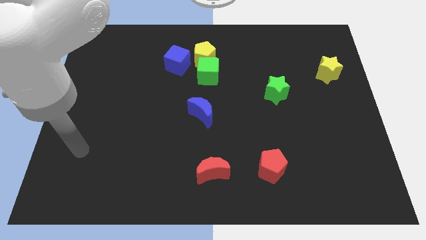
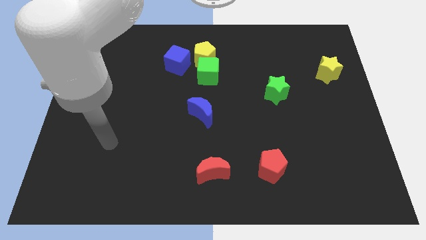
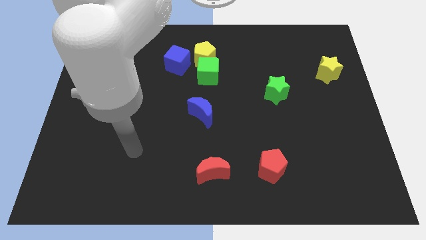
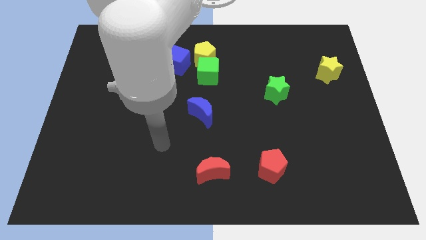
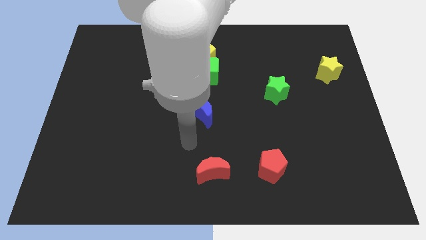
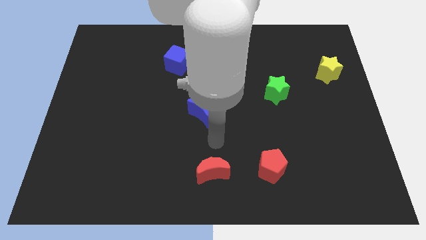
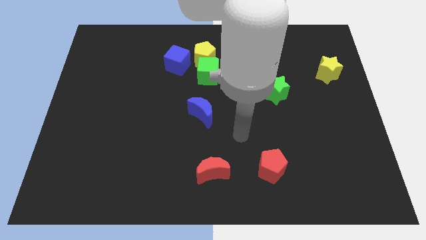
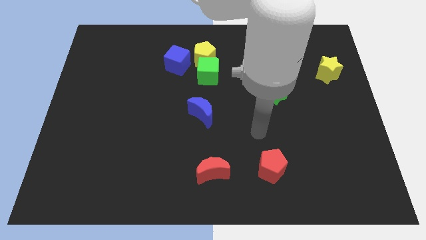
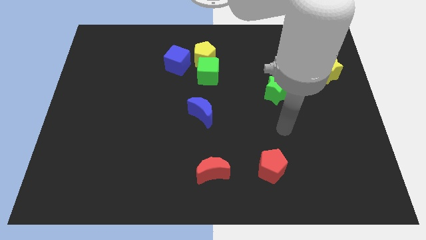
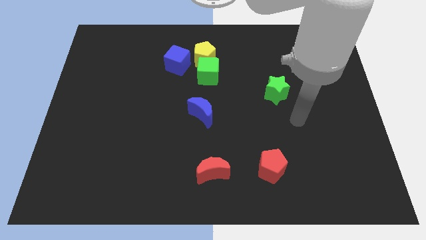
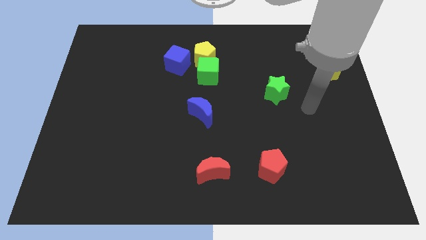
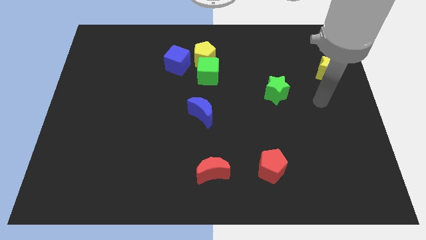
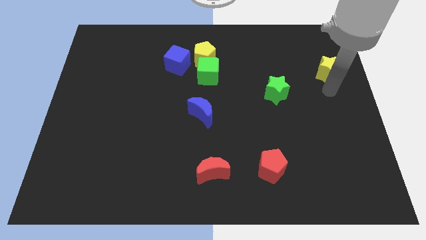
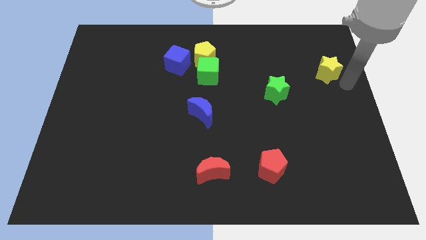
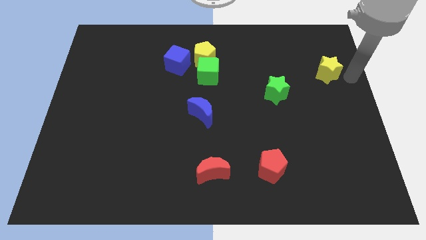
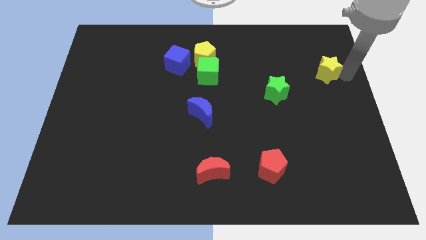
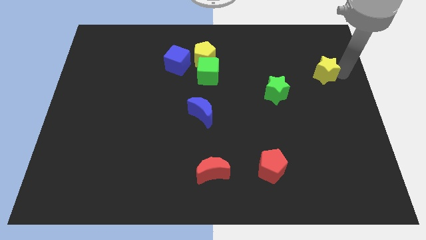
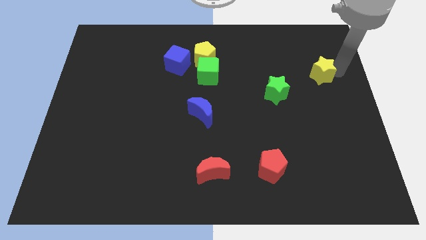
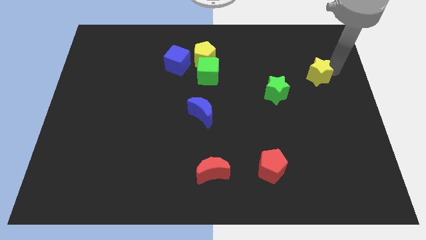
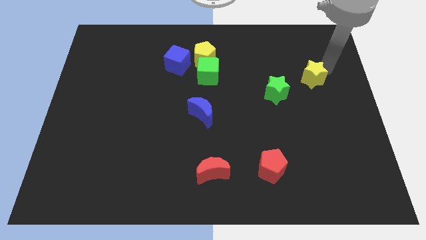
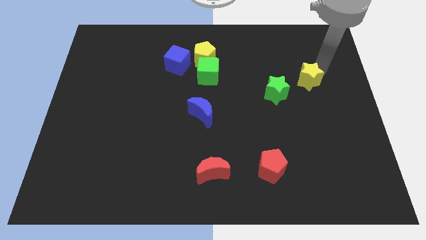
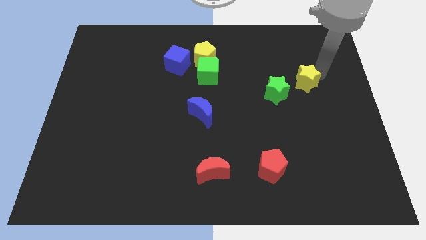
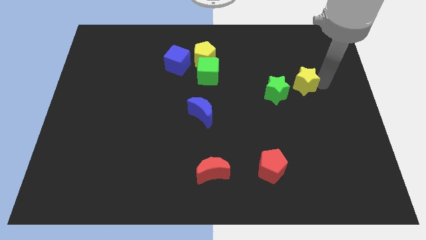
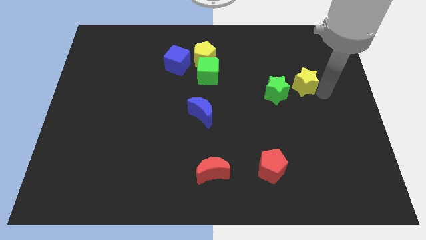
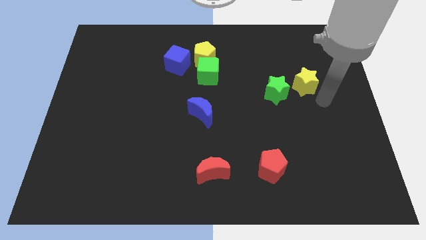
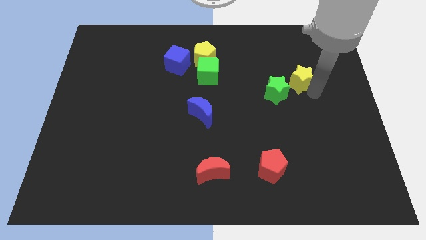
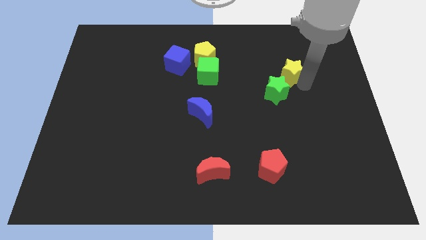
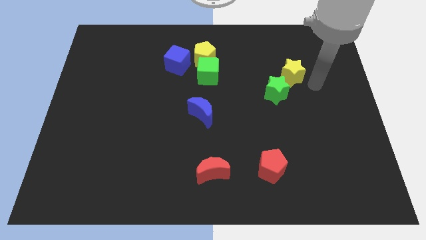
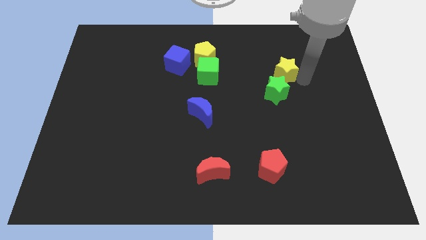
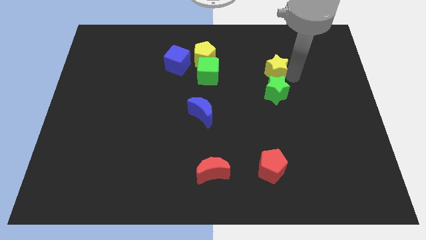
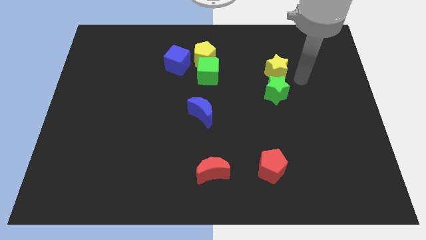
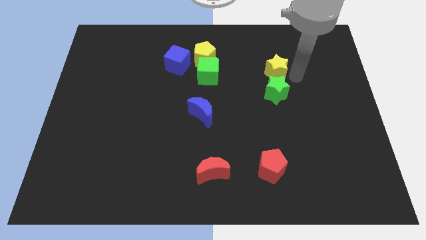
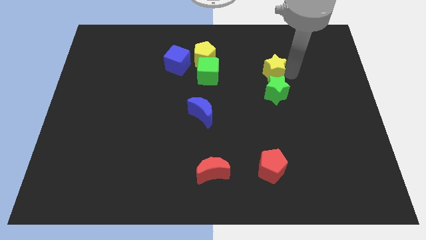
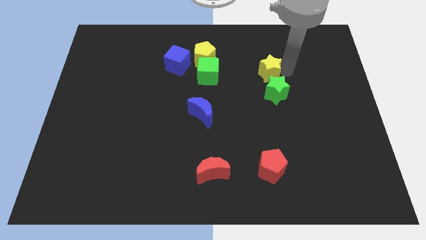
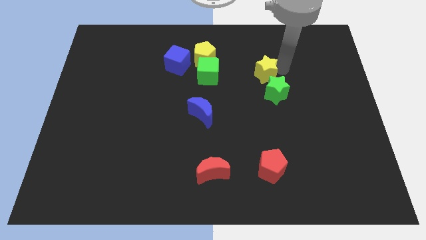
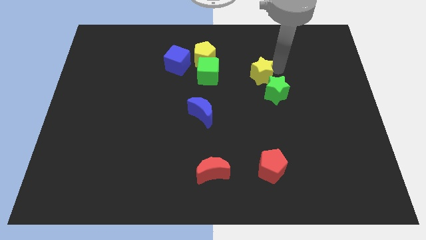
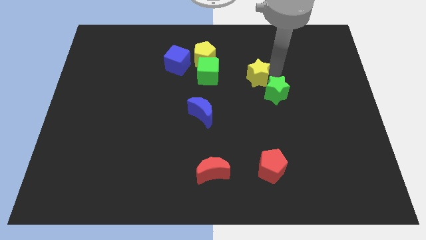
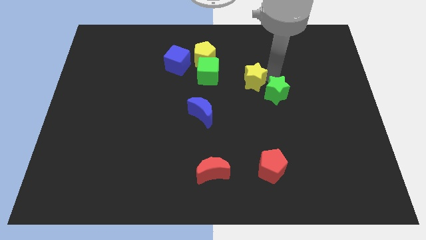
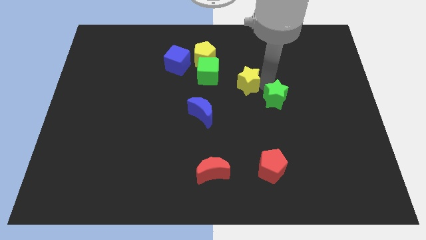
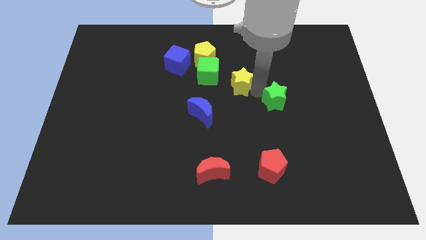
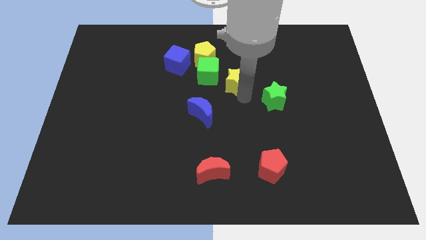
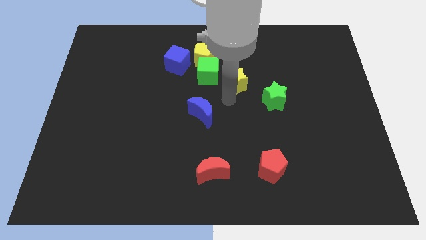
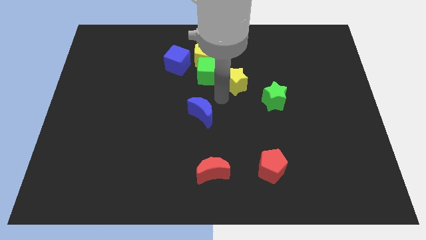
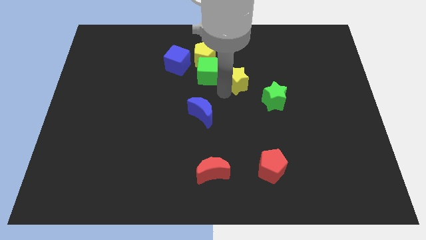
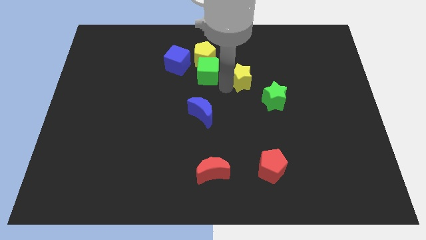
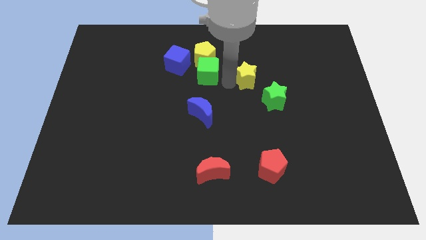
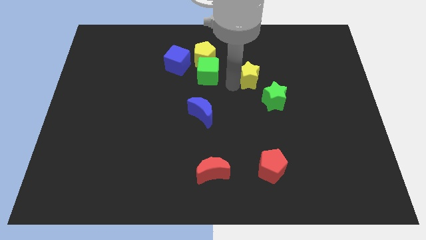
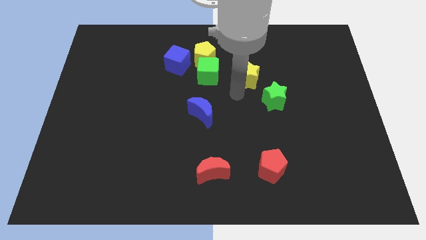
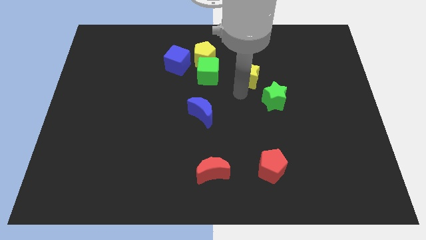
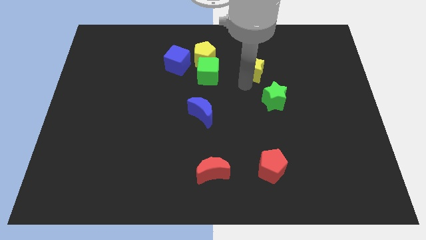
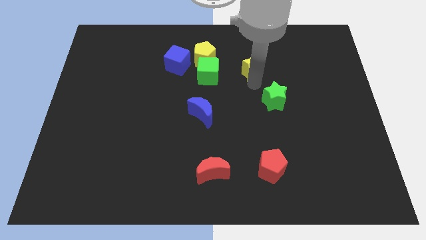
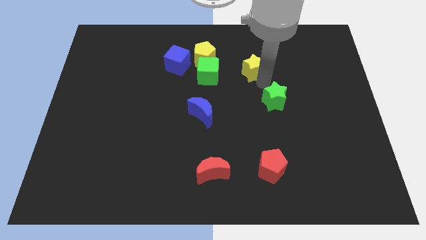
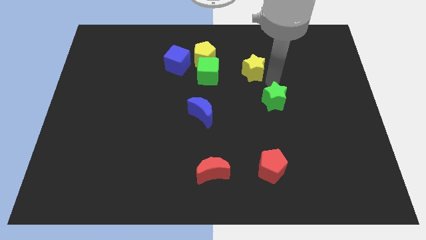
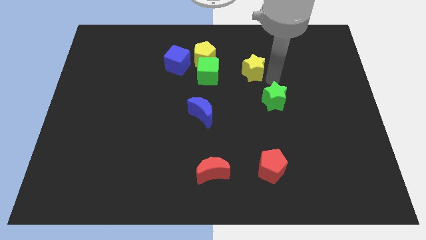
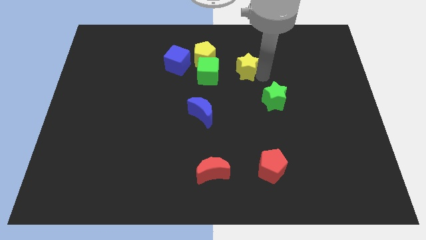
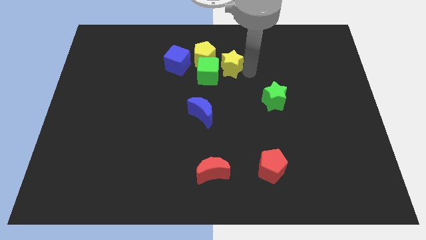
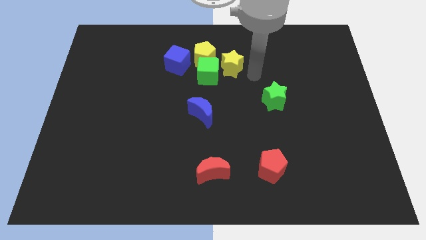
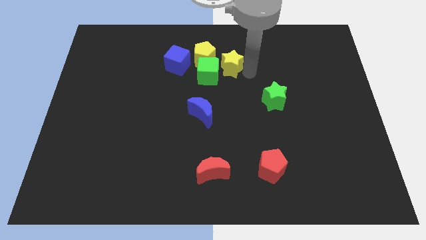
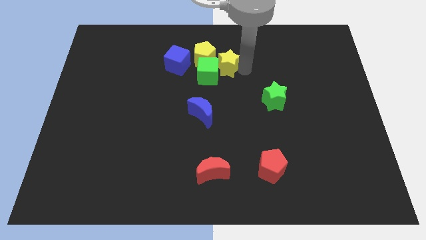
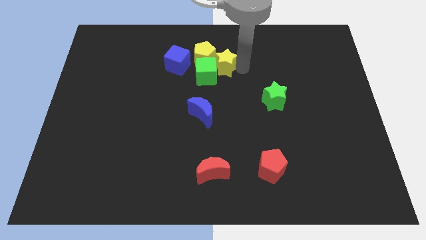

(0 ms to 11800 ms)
slide the yellow star next to the yellow pentagon

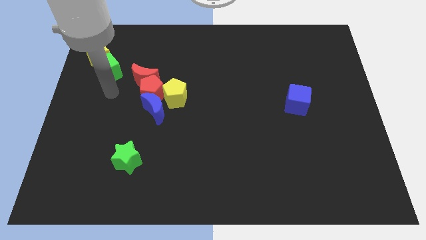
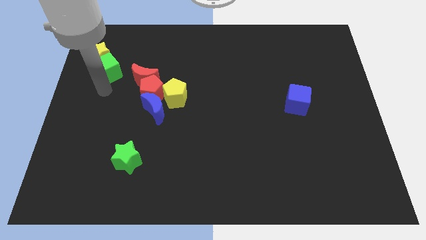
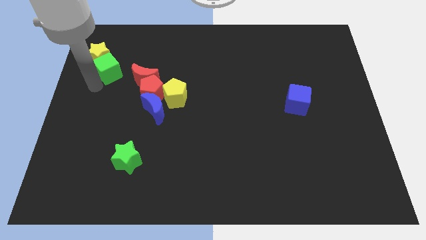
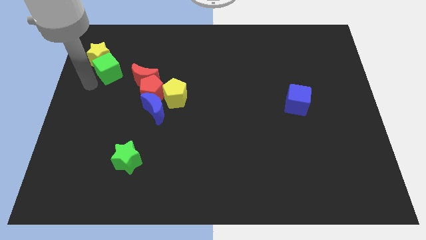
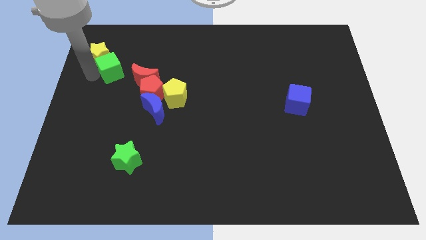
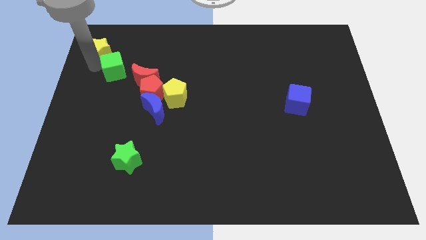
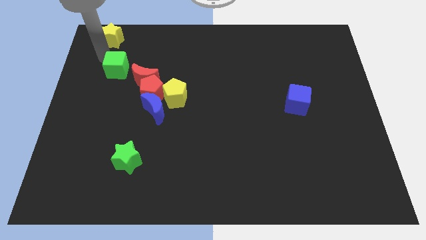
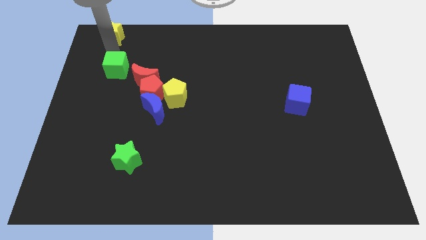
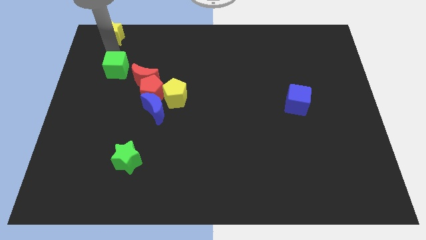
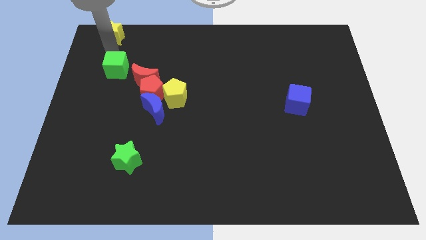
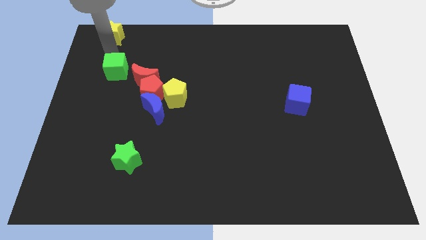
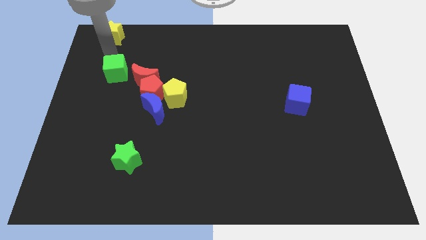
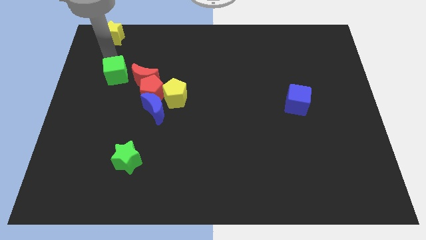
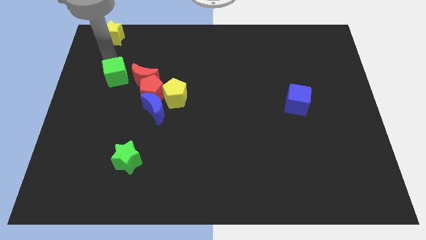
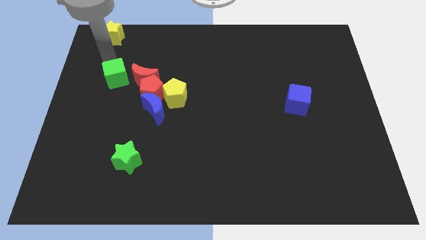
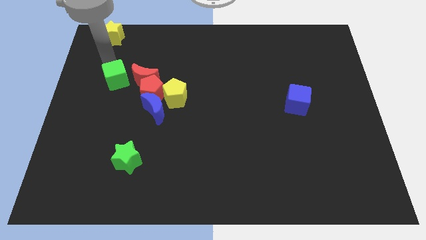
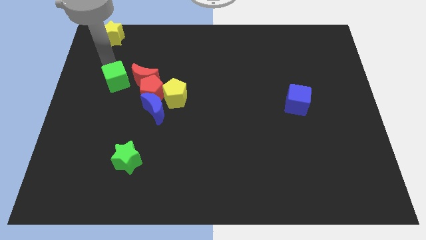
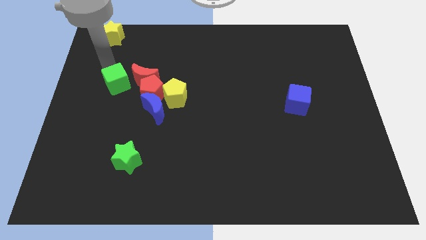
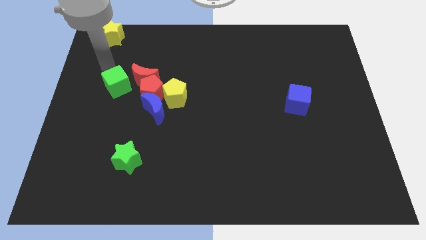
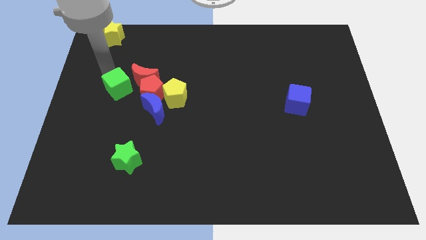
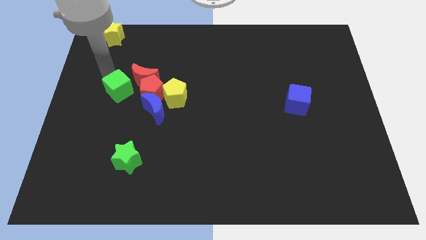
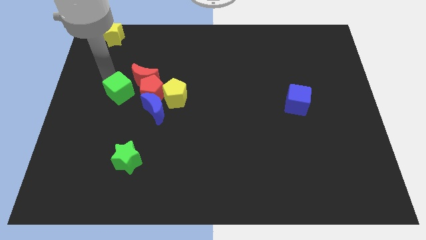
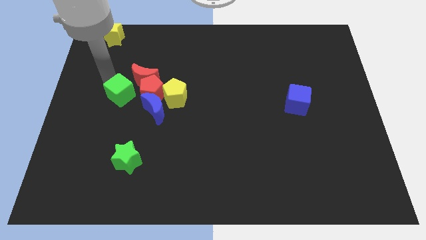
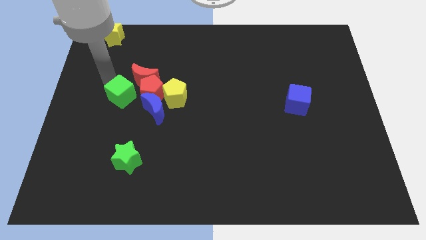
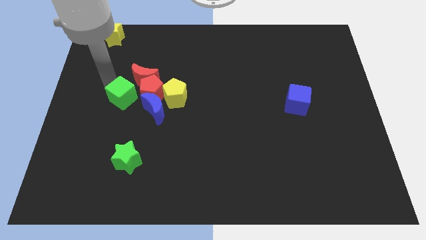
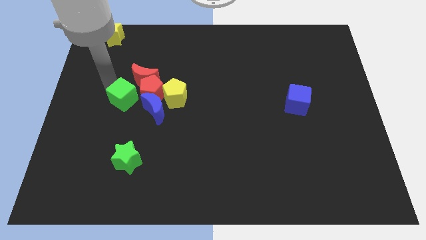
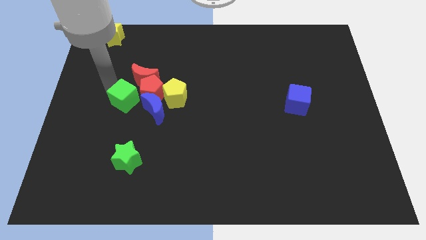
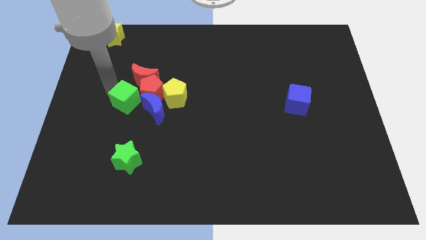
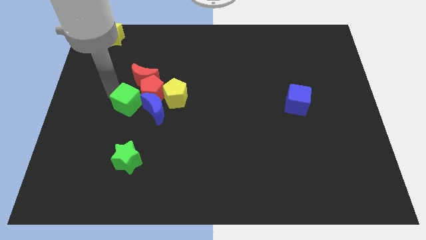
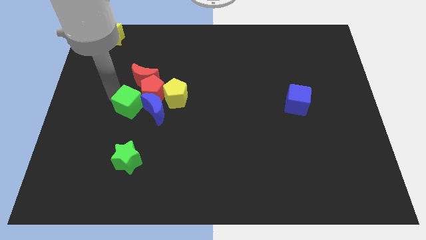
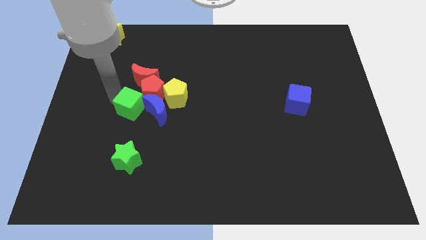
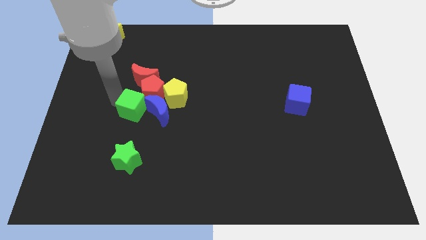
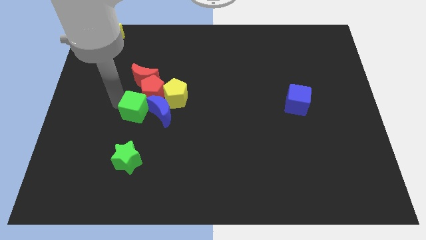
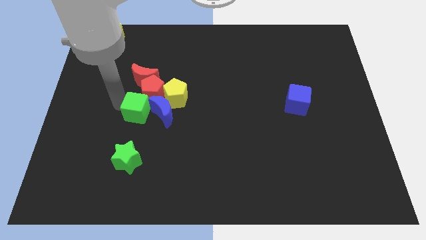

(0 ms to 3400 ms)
put the green cube next to the blue moon
